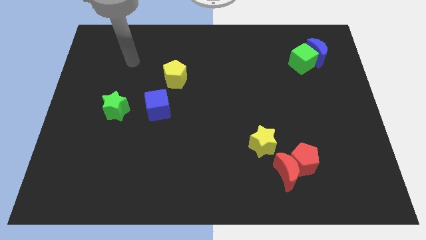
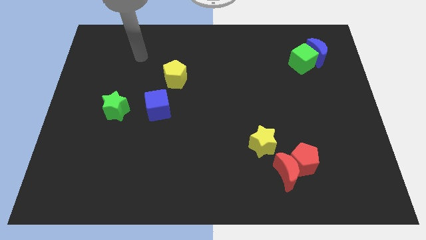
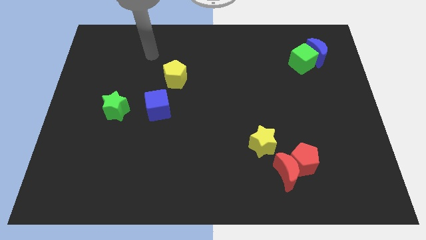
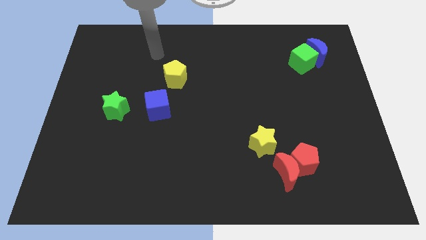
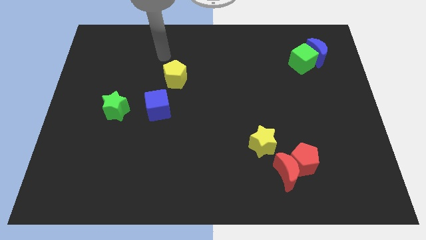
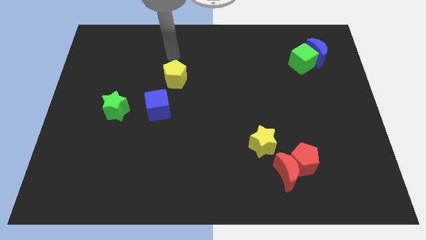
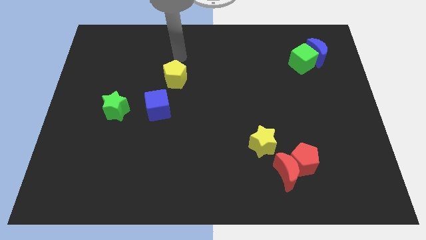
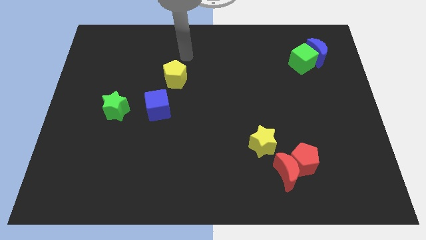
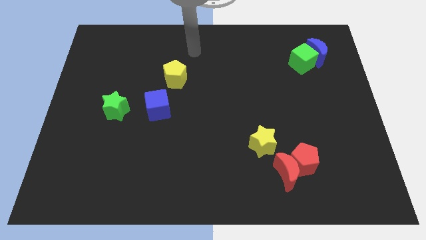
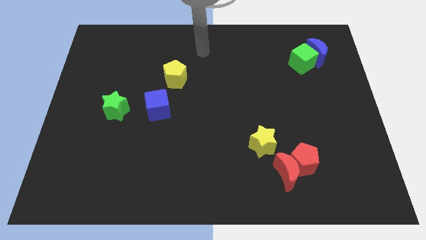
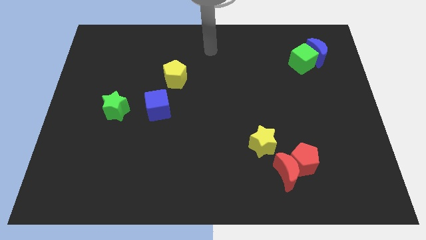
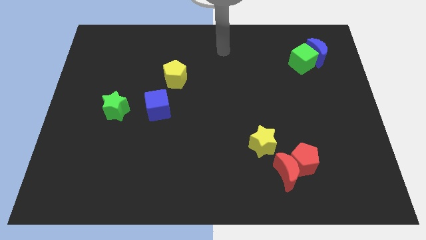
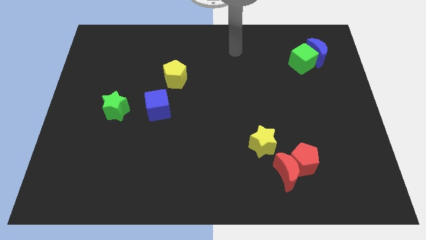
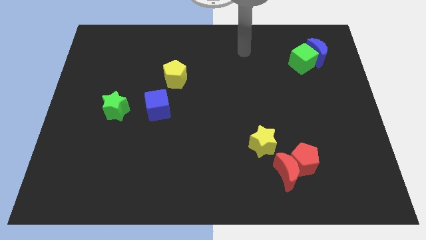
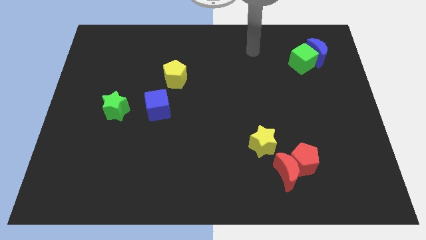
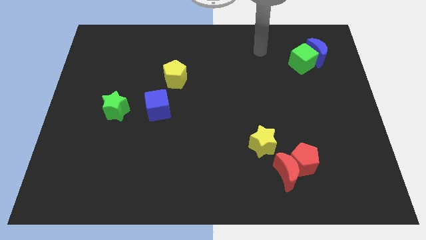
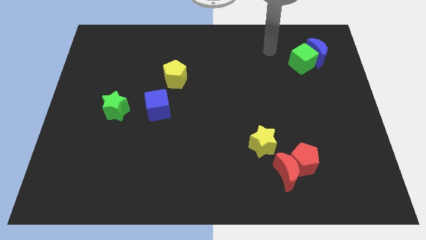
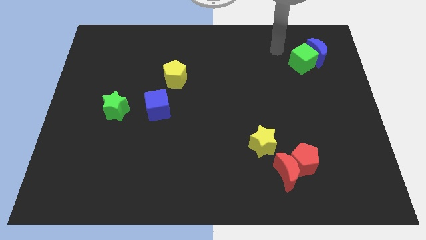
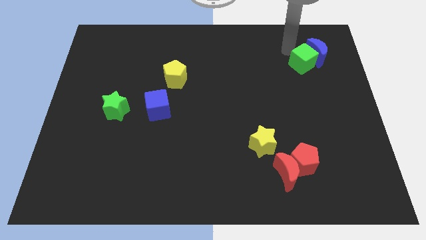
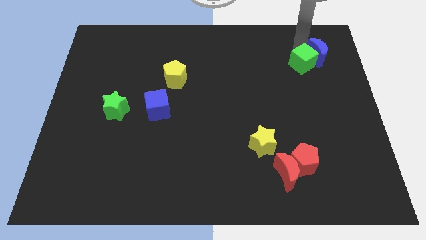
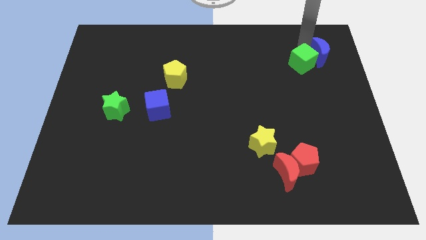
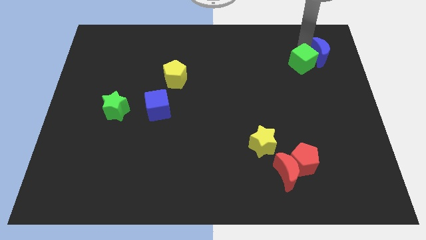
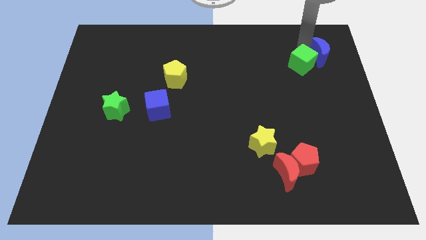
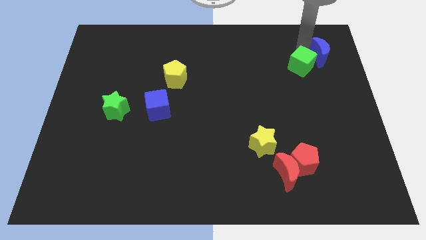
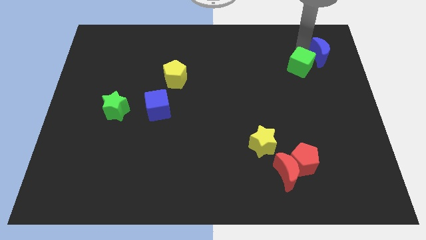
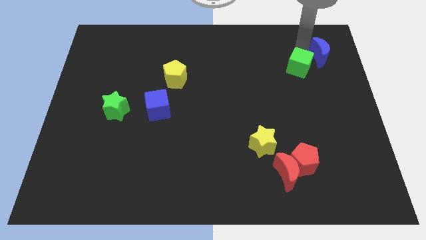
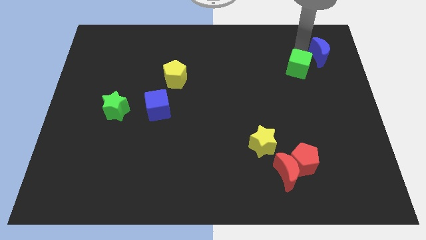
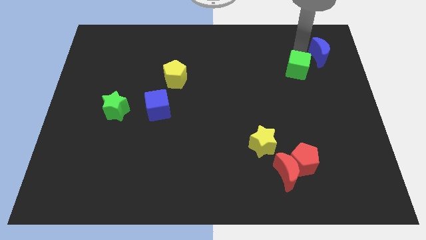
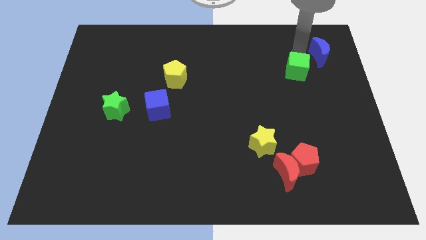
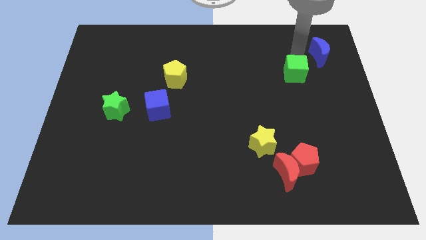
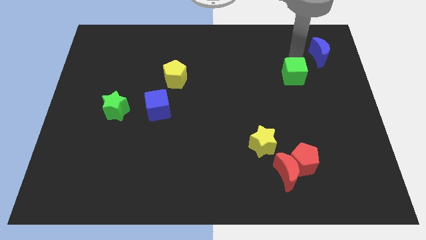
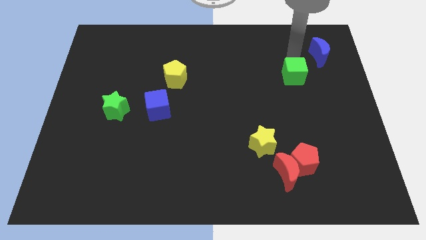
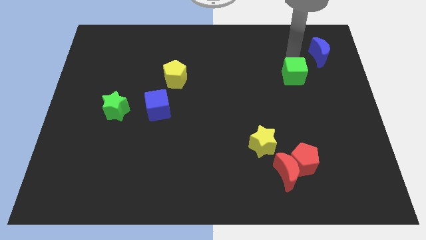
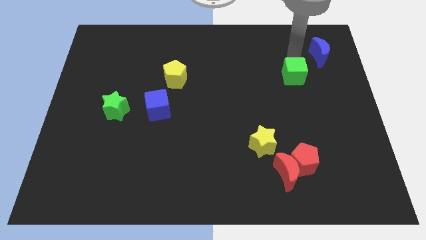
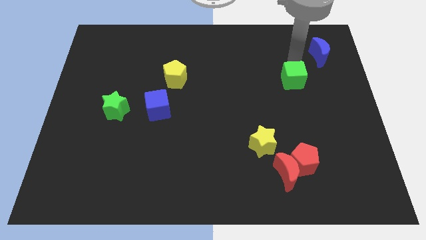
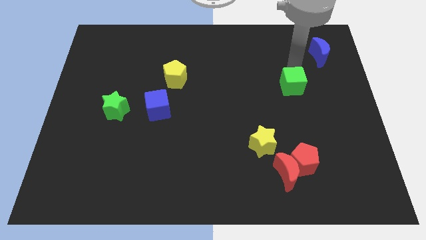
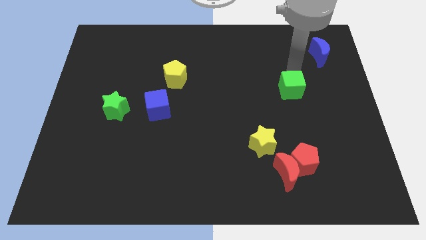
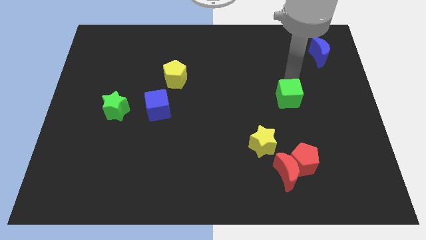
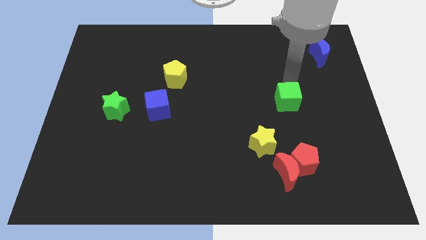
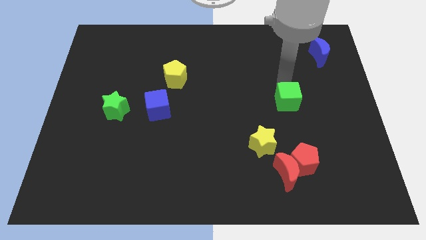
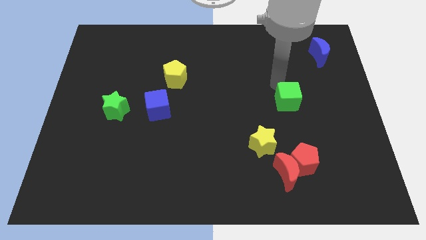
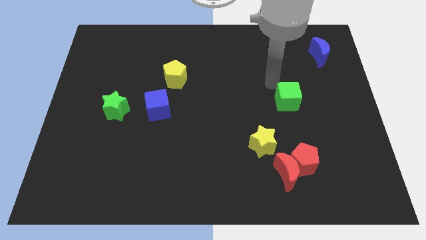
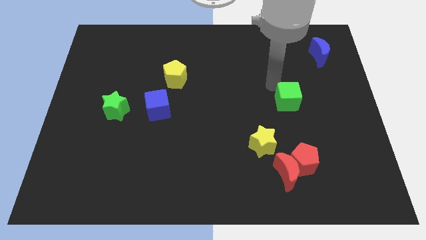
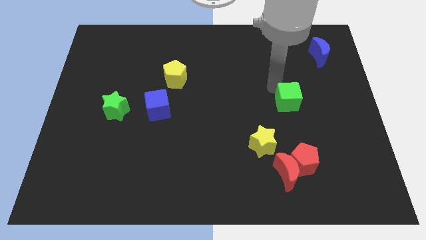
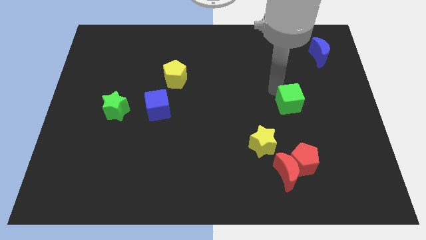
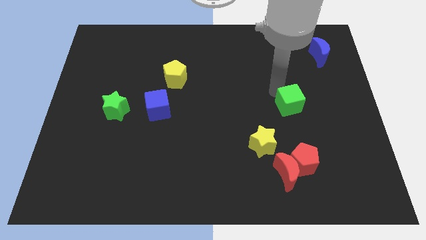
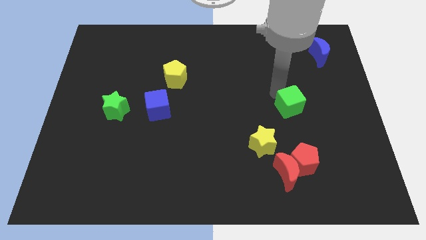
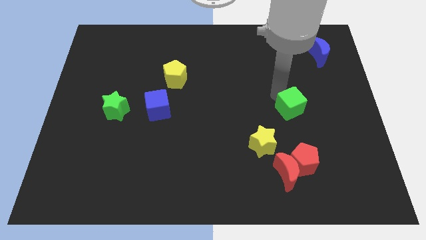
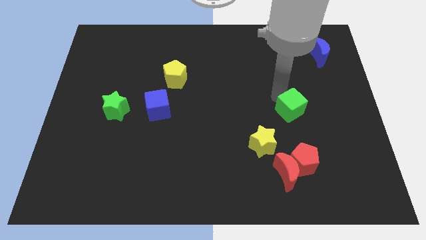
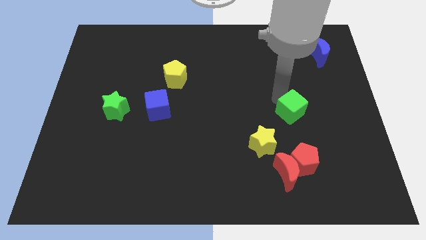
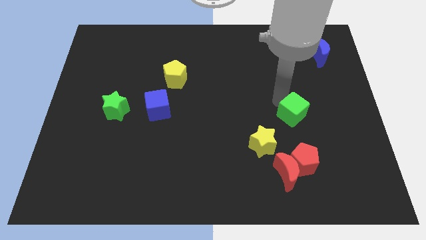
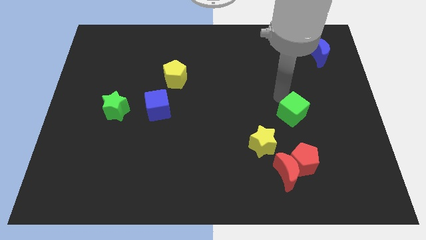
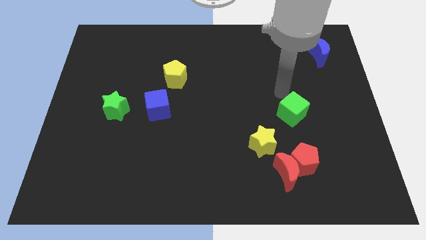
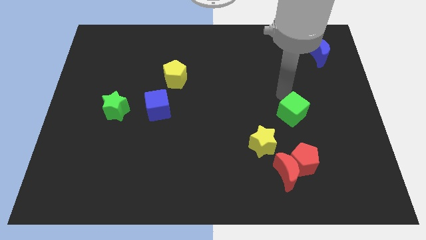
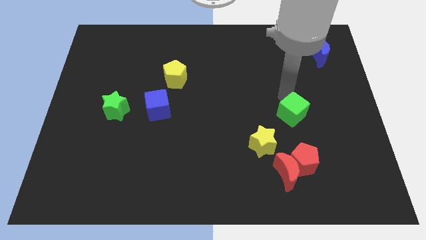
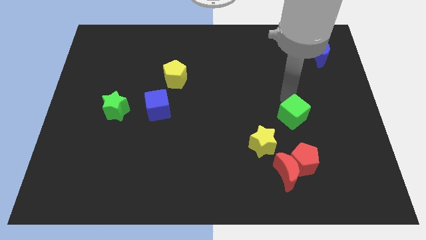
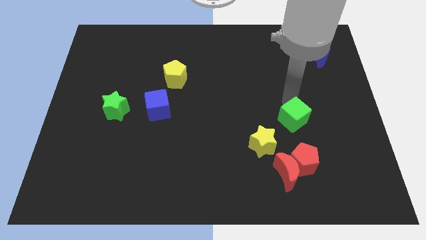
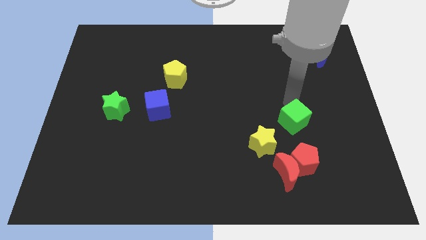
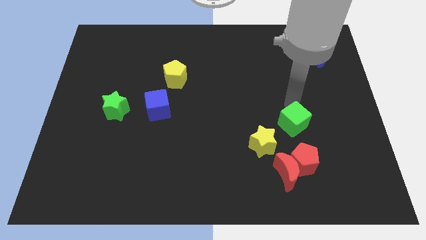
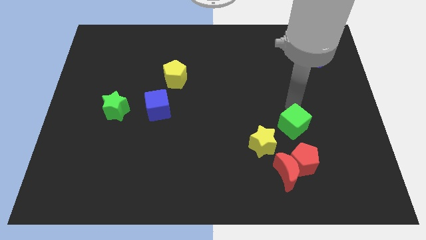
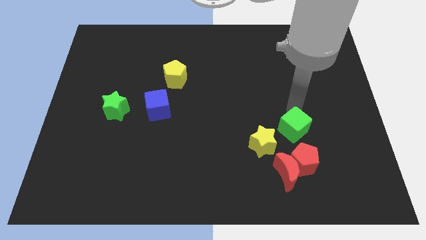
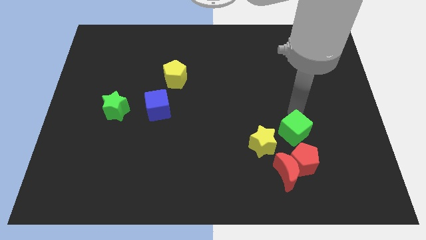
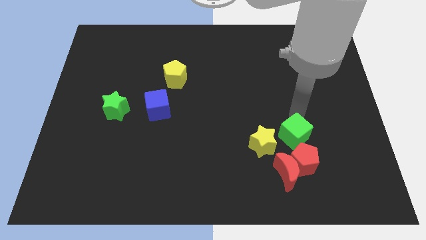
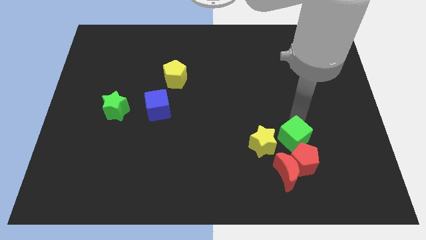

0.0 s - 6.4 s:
move the green cube next to the red pentagon

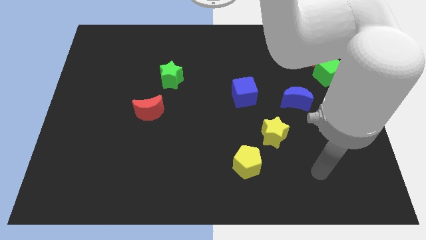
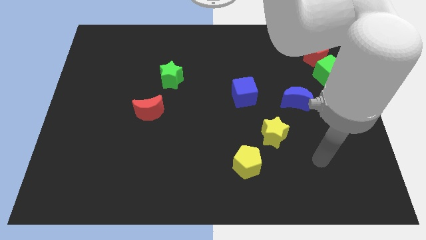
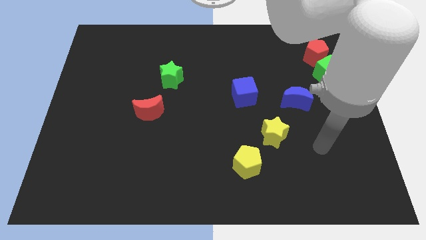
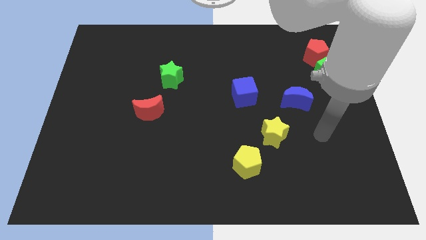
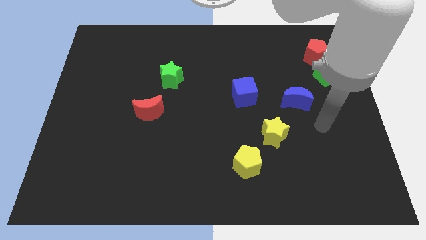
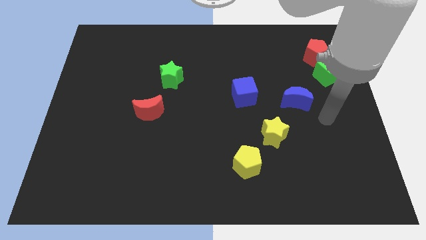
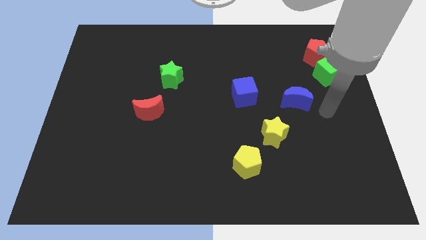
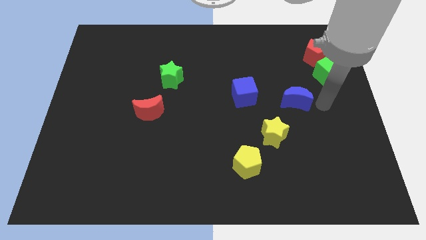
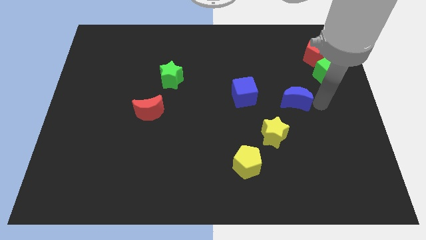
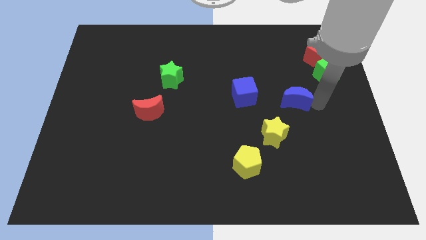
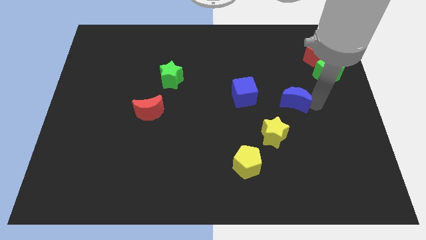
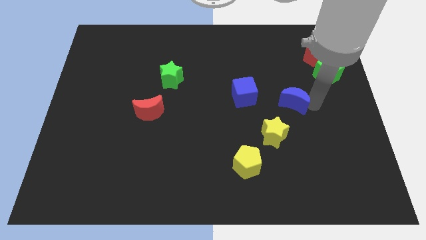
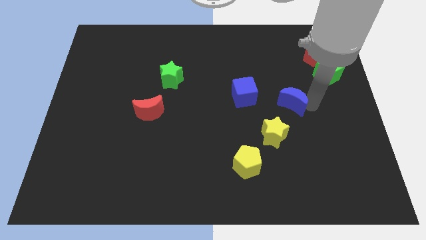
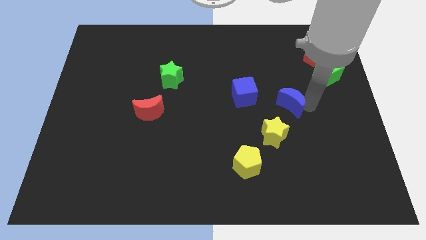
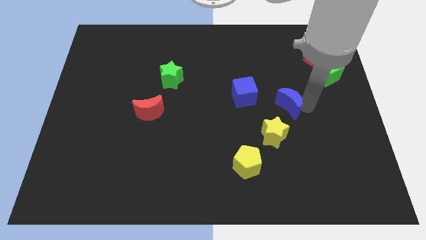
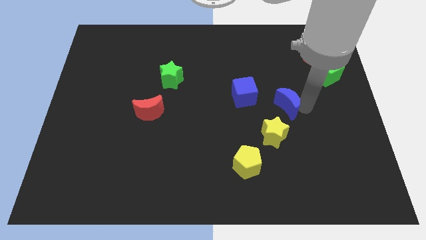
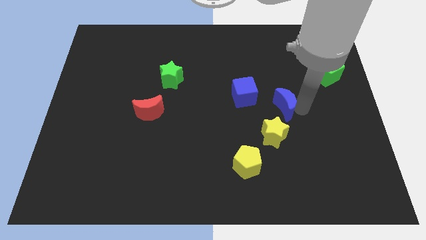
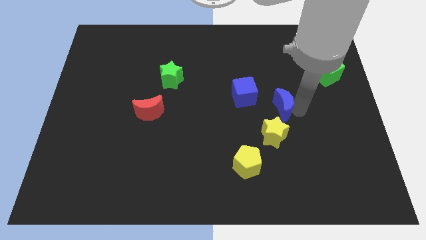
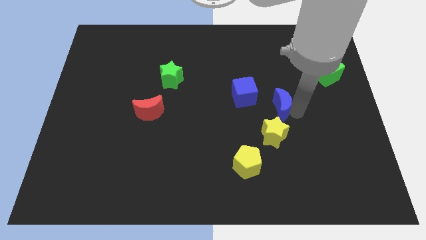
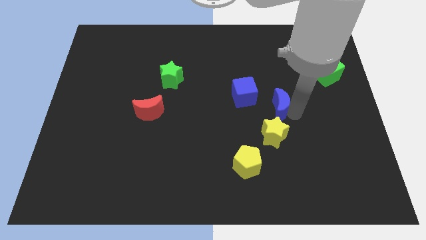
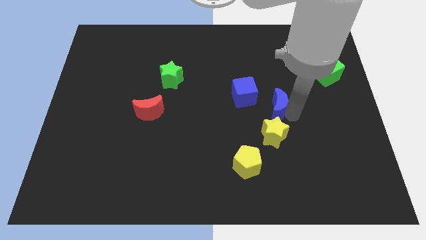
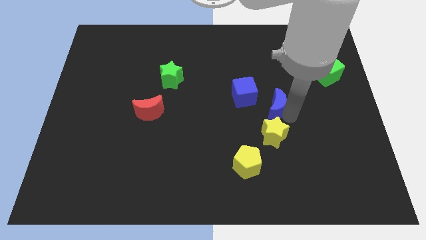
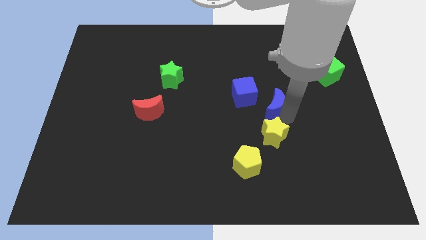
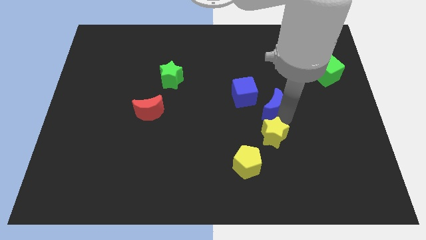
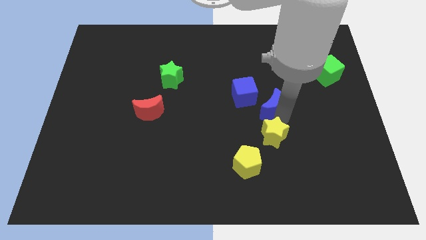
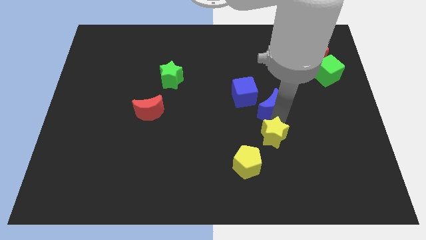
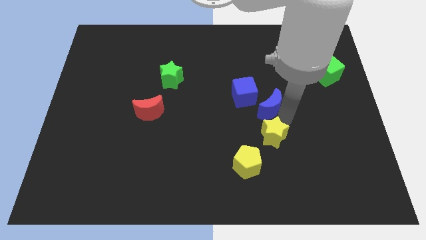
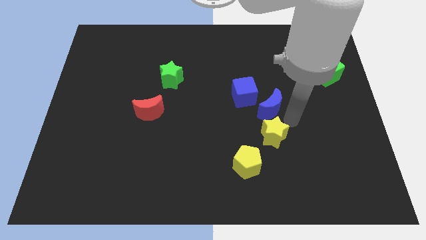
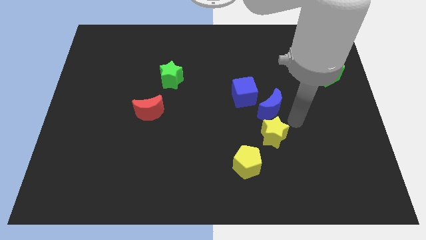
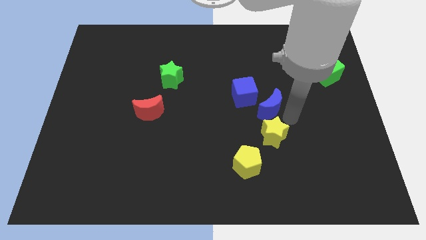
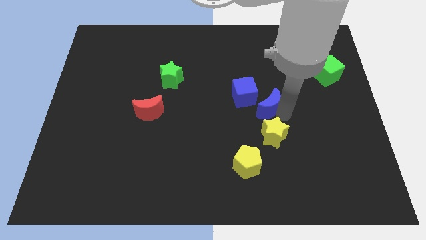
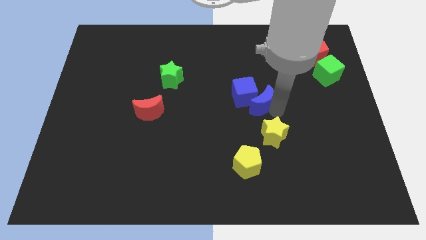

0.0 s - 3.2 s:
push the blue moon next to the blue cube
